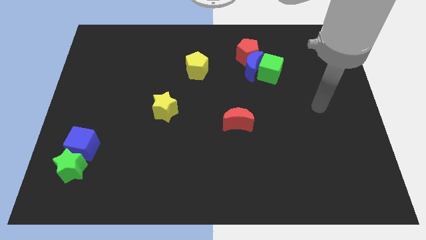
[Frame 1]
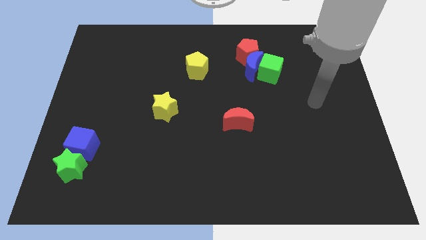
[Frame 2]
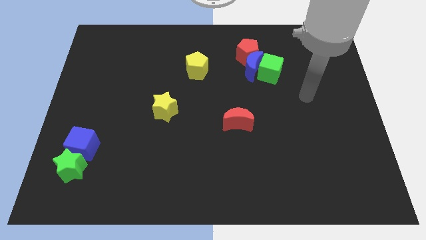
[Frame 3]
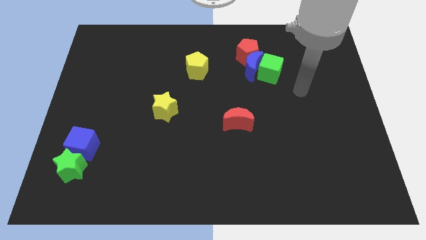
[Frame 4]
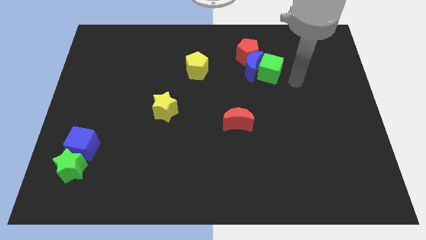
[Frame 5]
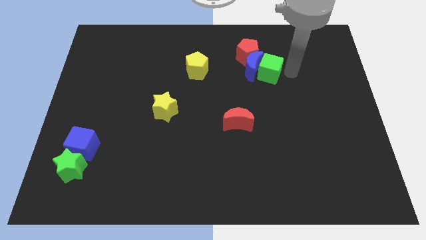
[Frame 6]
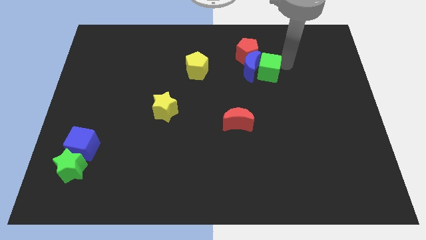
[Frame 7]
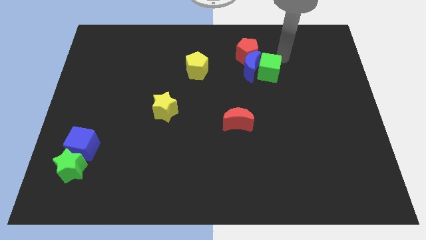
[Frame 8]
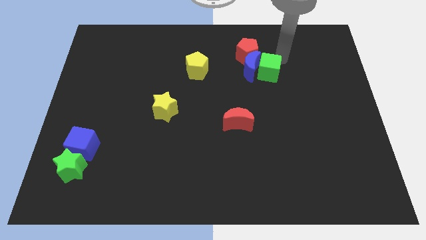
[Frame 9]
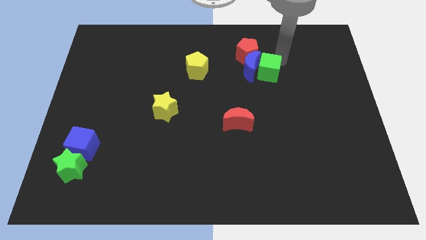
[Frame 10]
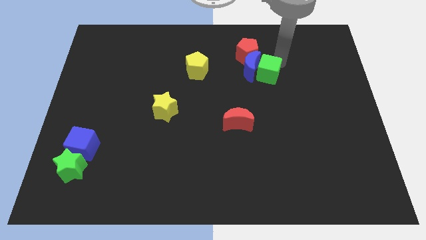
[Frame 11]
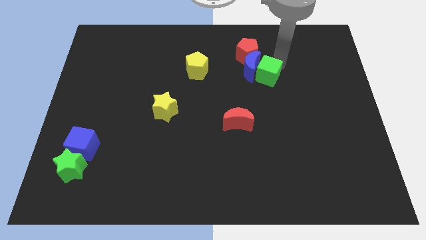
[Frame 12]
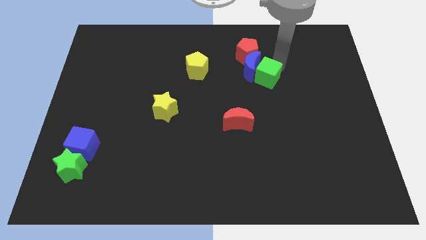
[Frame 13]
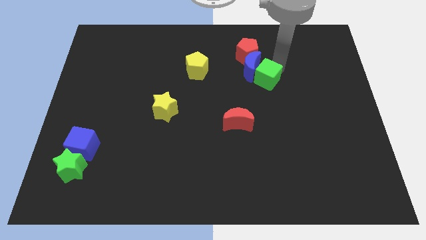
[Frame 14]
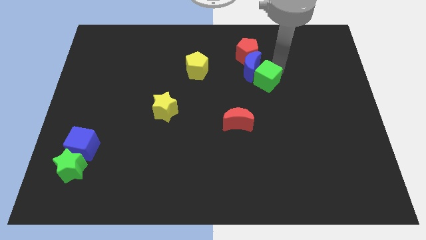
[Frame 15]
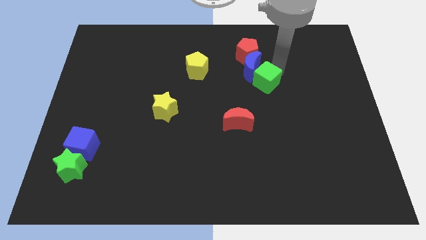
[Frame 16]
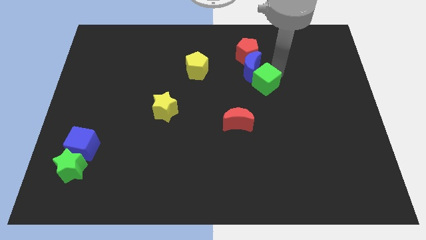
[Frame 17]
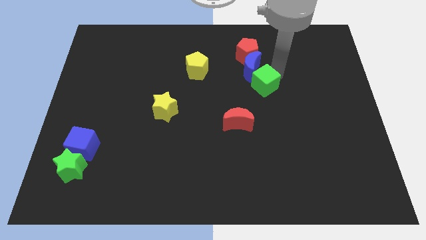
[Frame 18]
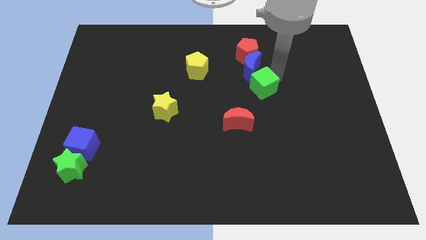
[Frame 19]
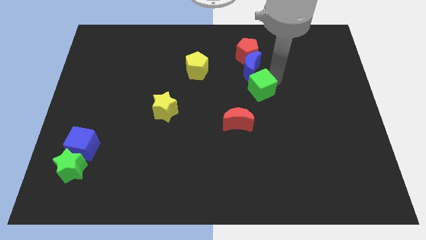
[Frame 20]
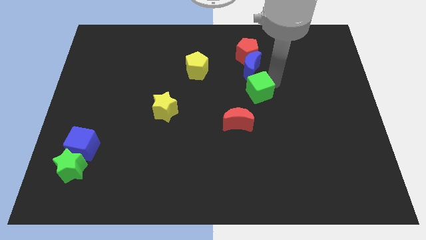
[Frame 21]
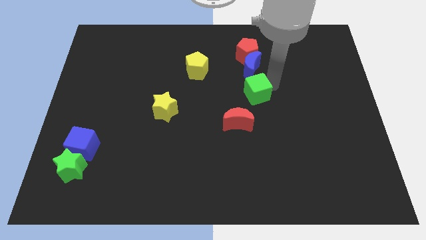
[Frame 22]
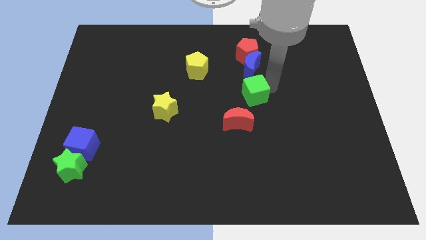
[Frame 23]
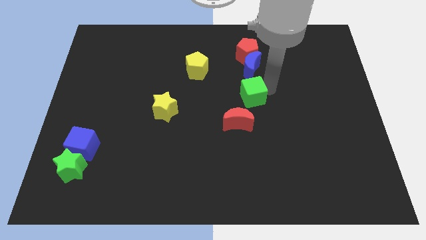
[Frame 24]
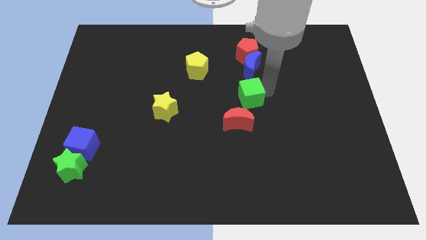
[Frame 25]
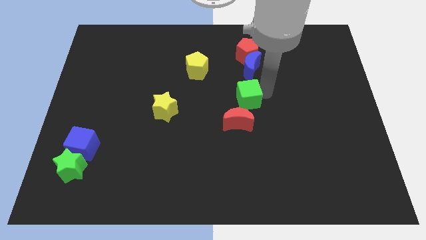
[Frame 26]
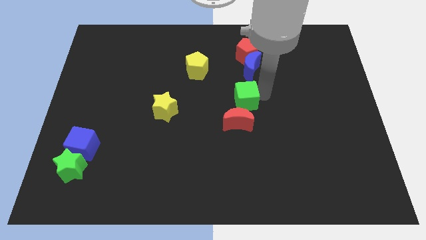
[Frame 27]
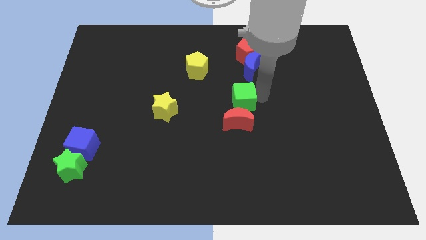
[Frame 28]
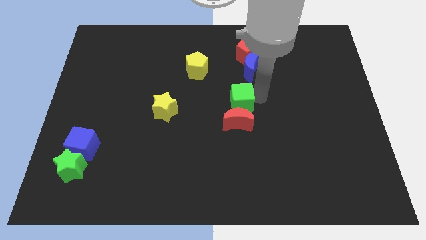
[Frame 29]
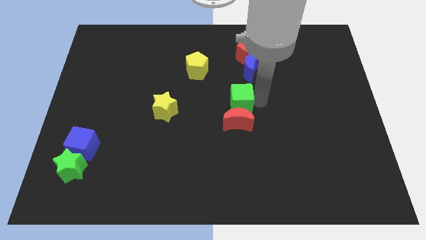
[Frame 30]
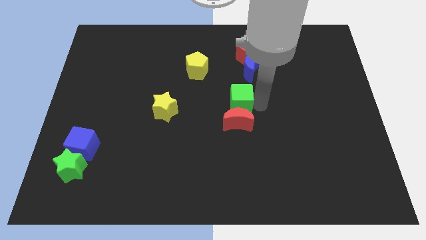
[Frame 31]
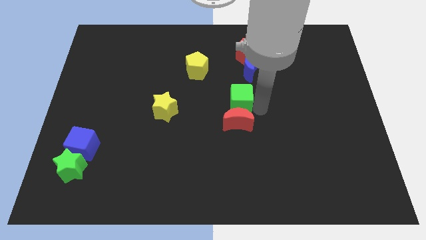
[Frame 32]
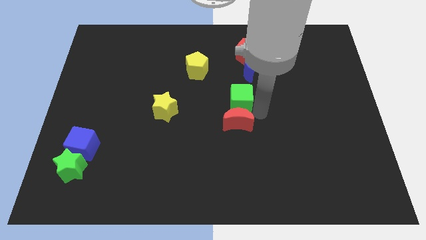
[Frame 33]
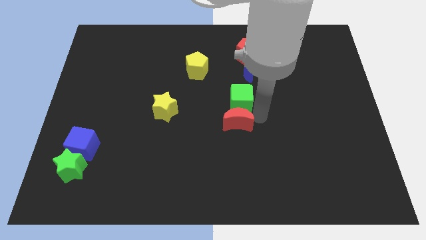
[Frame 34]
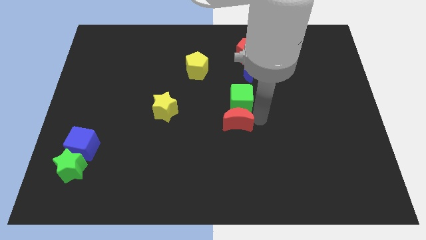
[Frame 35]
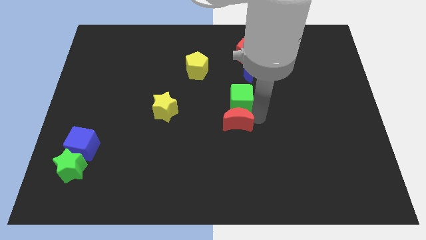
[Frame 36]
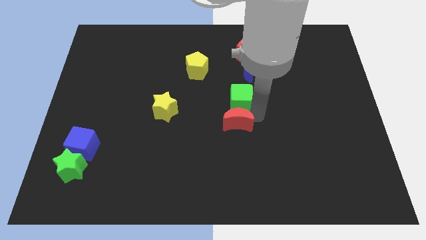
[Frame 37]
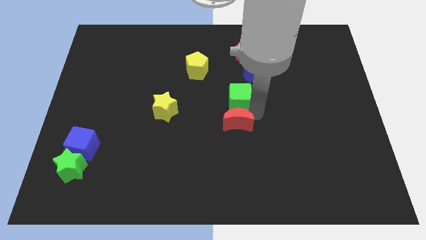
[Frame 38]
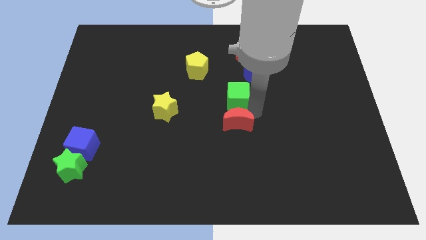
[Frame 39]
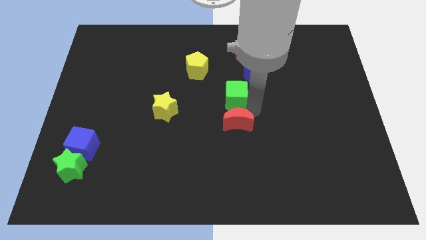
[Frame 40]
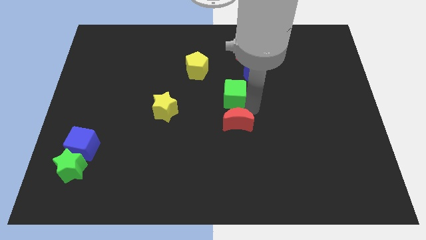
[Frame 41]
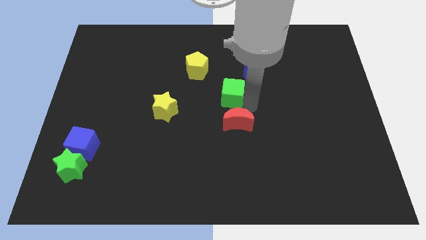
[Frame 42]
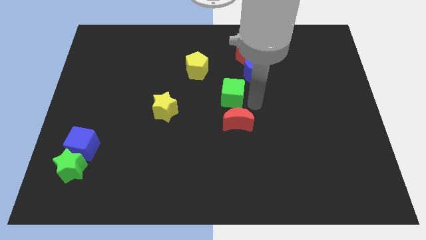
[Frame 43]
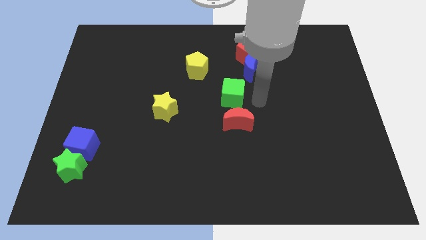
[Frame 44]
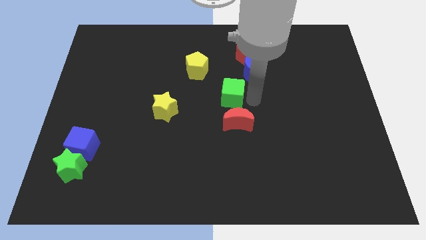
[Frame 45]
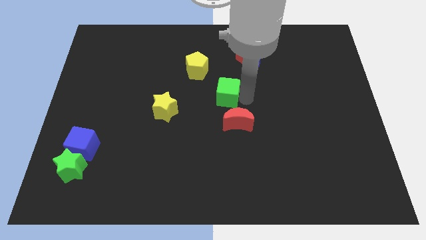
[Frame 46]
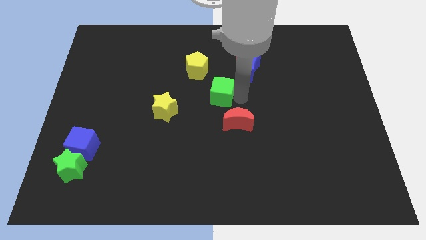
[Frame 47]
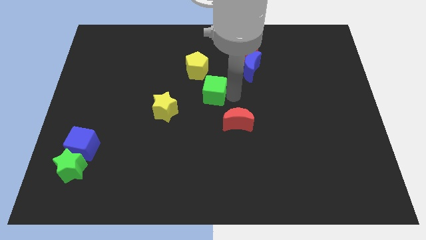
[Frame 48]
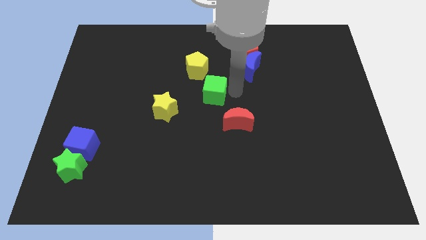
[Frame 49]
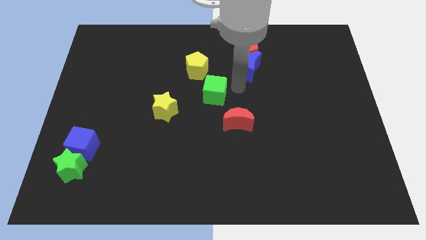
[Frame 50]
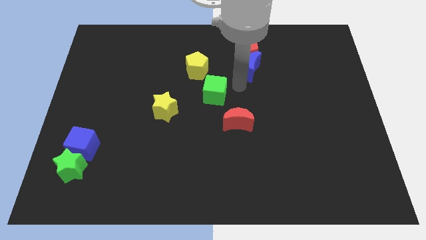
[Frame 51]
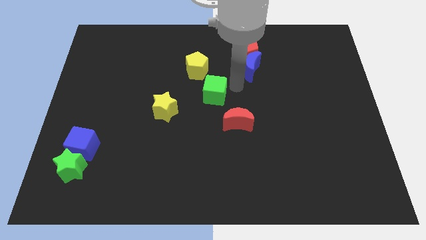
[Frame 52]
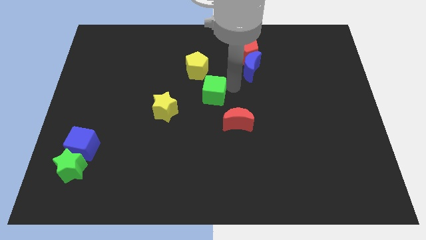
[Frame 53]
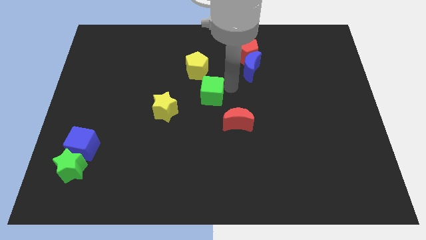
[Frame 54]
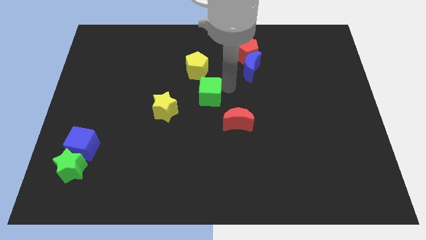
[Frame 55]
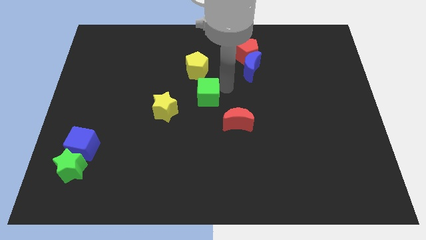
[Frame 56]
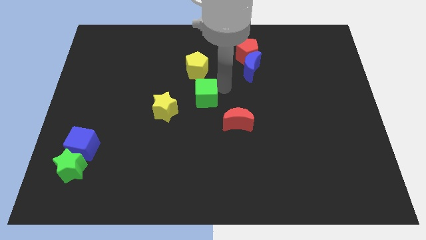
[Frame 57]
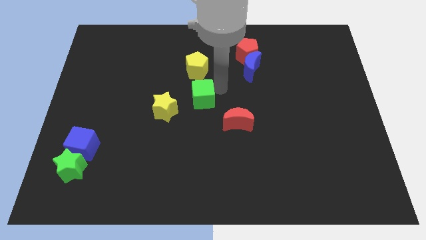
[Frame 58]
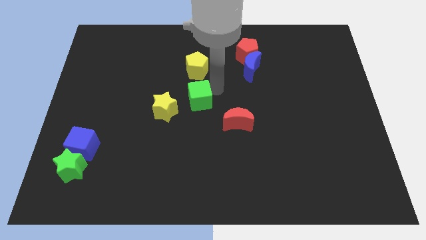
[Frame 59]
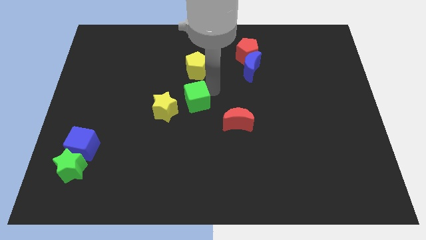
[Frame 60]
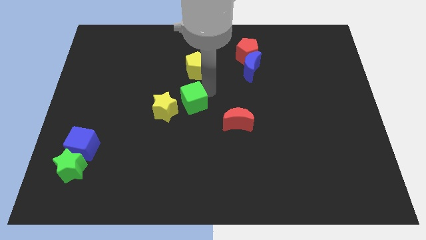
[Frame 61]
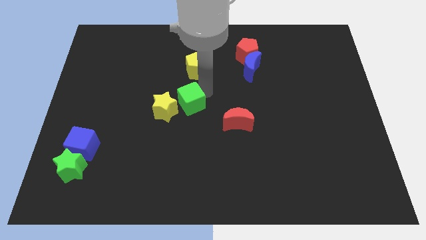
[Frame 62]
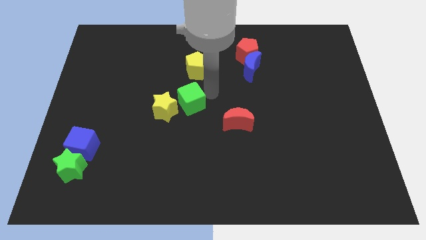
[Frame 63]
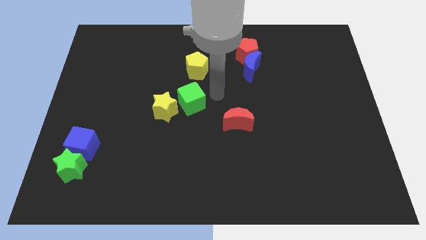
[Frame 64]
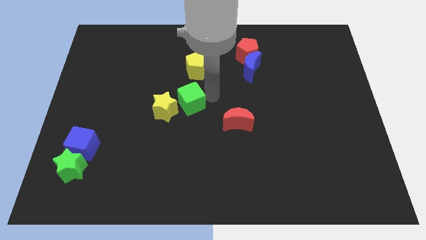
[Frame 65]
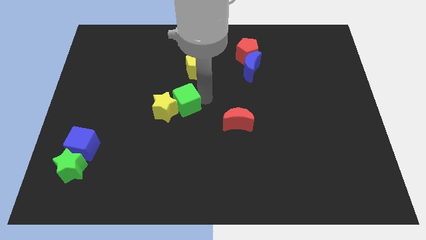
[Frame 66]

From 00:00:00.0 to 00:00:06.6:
slide the green cube close to the yellow star
